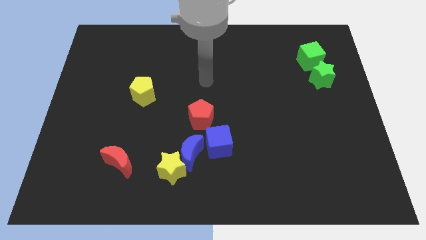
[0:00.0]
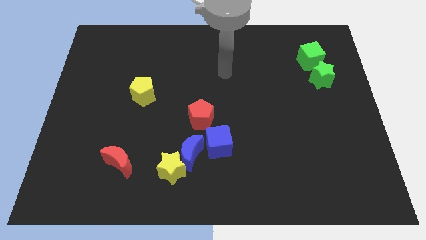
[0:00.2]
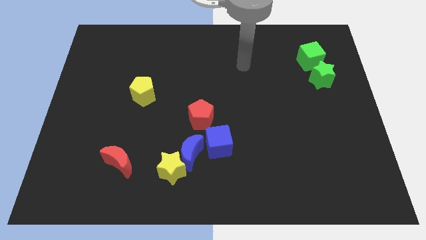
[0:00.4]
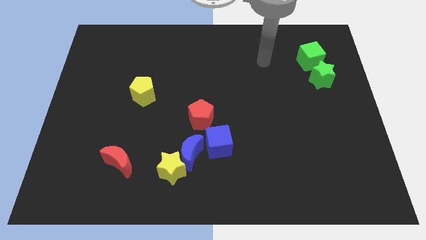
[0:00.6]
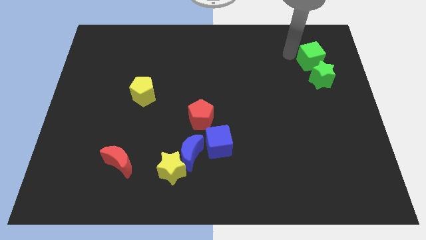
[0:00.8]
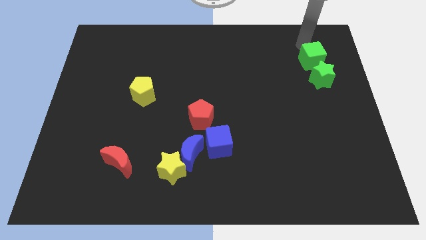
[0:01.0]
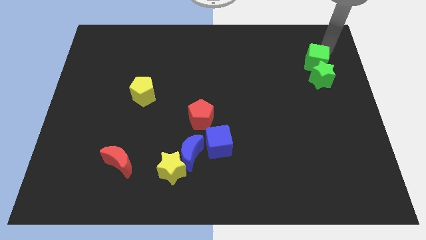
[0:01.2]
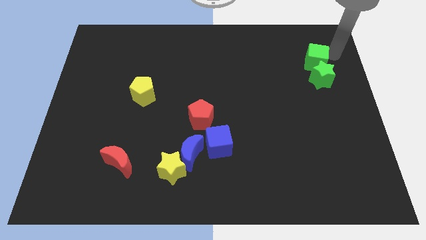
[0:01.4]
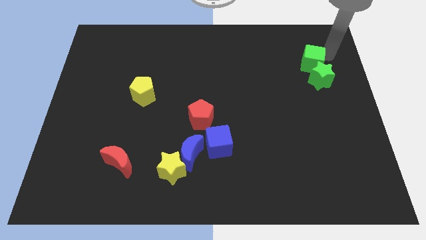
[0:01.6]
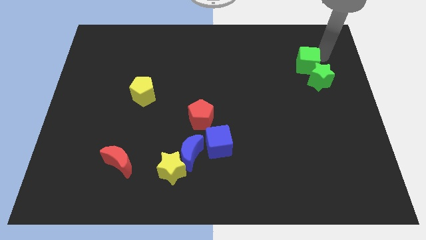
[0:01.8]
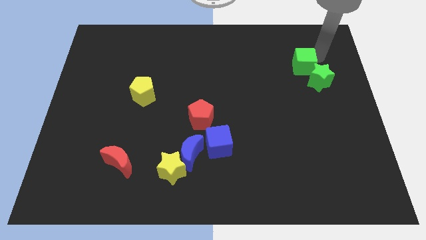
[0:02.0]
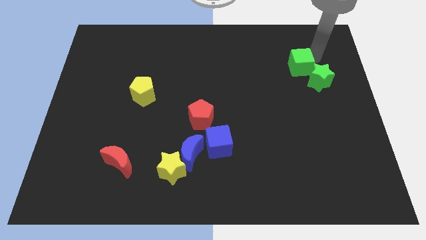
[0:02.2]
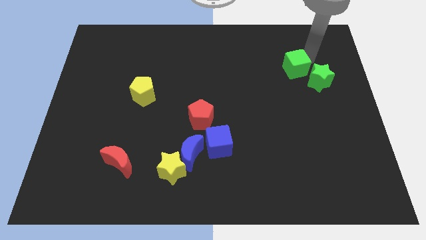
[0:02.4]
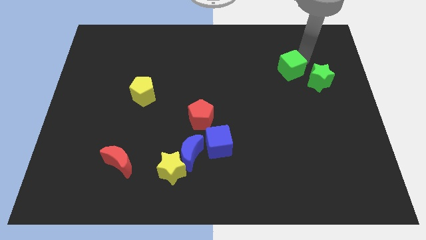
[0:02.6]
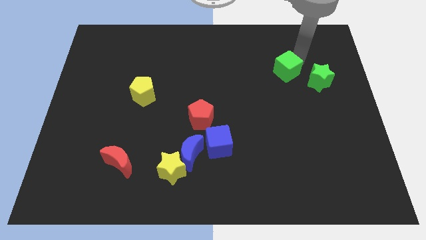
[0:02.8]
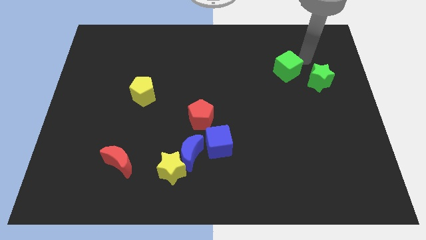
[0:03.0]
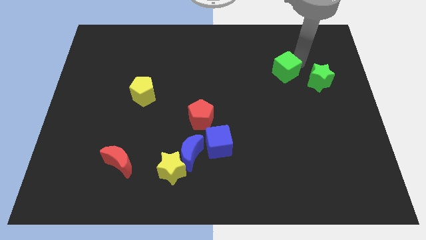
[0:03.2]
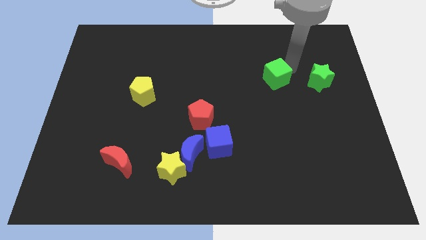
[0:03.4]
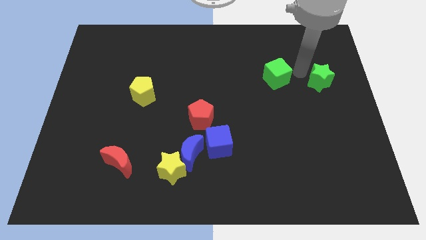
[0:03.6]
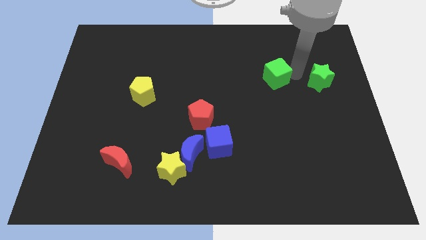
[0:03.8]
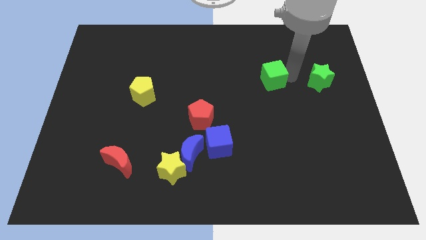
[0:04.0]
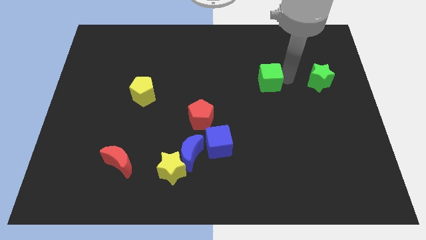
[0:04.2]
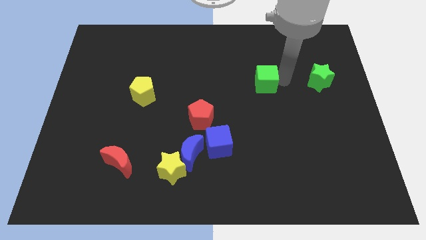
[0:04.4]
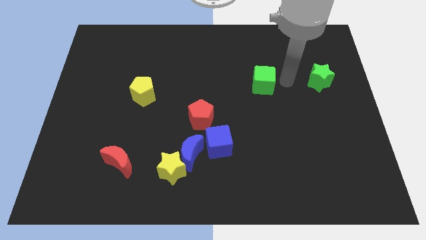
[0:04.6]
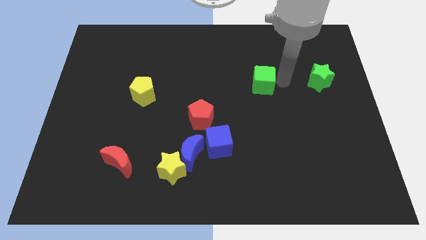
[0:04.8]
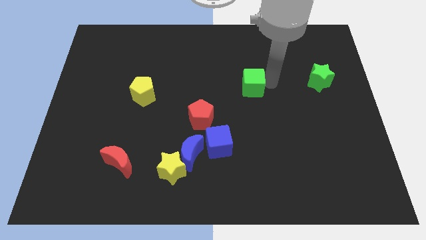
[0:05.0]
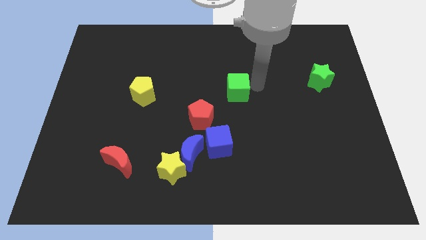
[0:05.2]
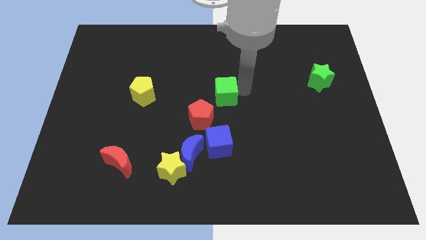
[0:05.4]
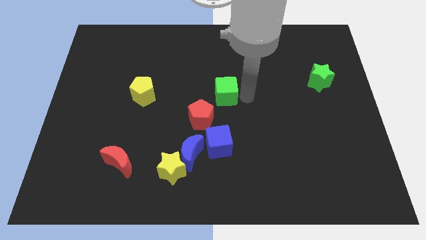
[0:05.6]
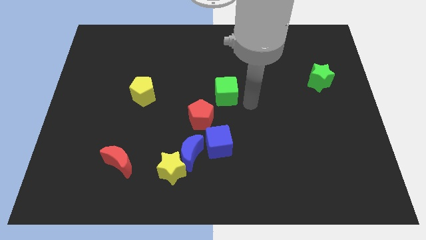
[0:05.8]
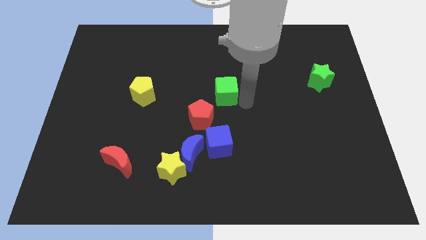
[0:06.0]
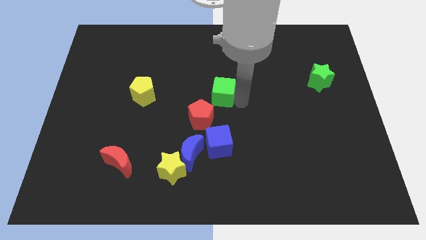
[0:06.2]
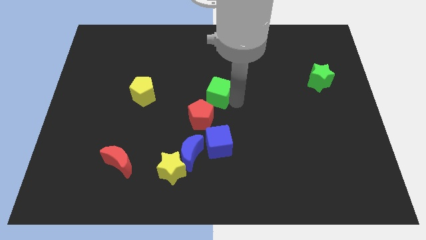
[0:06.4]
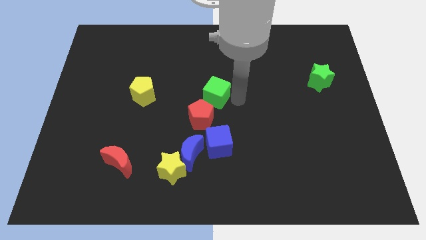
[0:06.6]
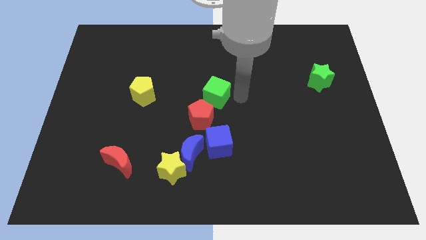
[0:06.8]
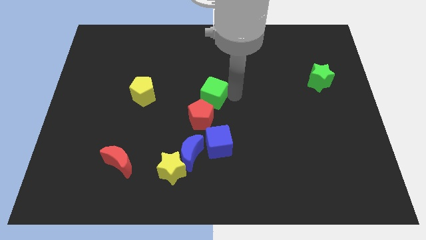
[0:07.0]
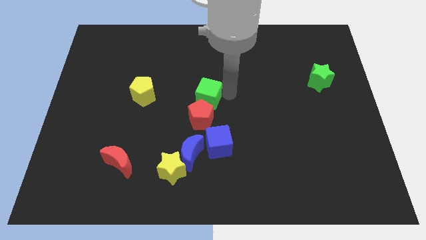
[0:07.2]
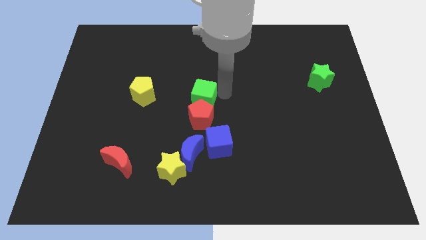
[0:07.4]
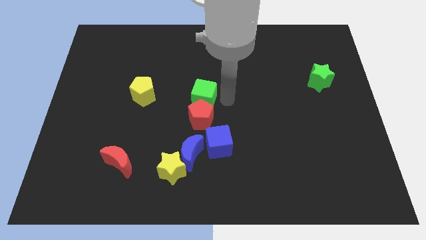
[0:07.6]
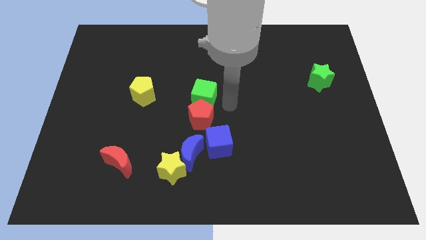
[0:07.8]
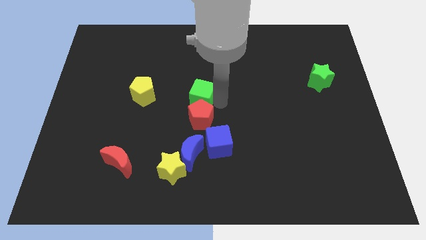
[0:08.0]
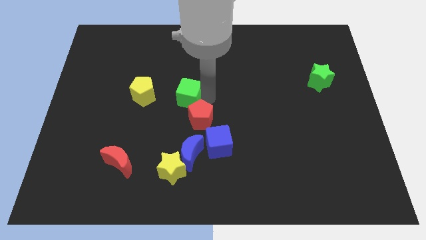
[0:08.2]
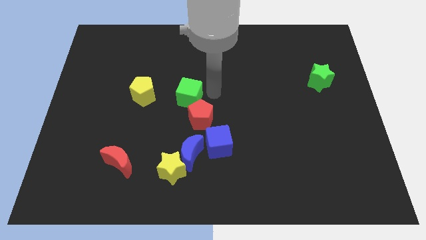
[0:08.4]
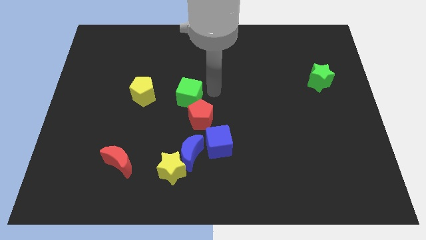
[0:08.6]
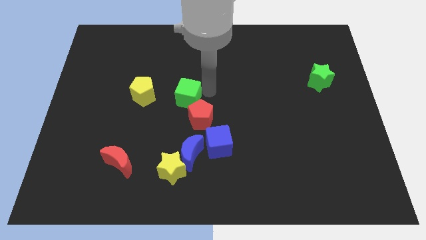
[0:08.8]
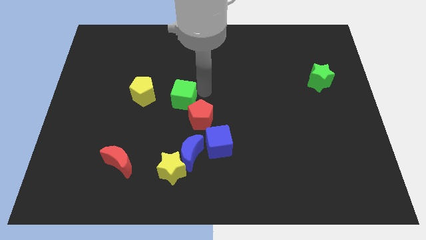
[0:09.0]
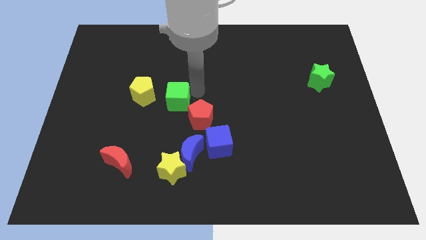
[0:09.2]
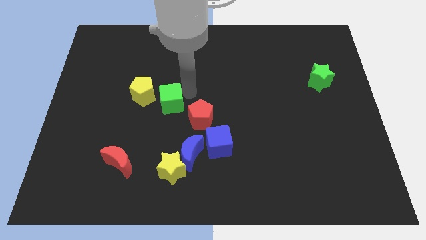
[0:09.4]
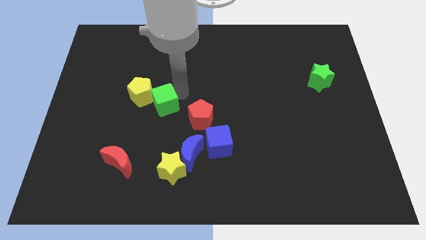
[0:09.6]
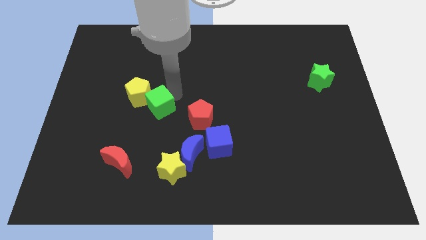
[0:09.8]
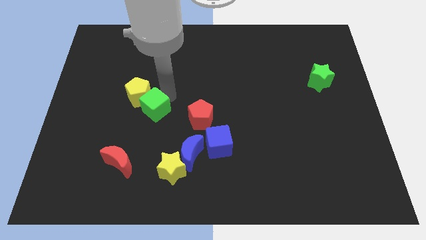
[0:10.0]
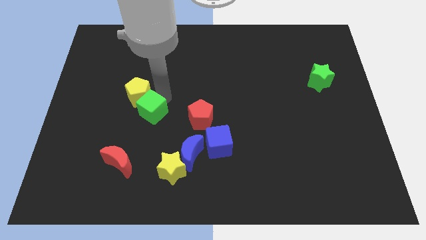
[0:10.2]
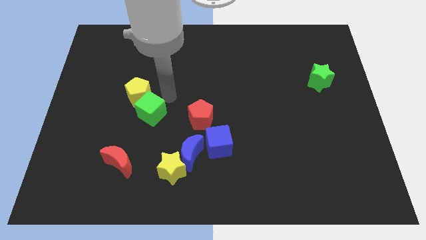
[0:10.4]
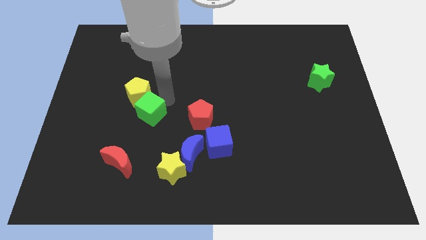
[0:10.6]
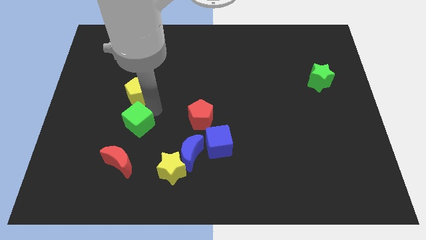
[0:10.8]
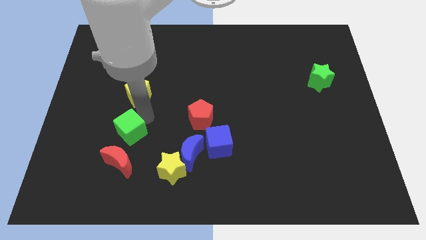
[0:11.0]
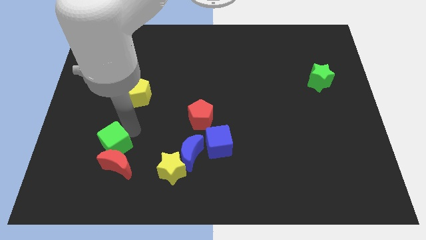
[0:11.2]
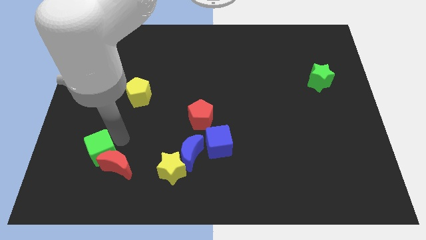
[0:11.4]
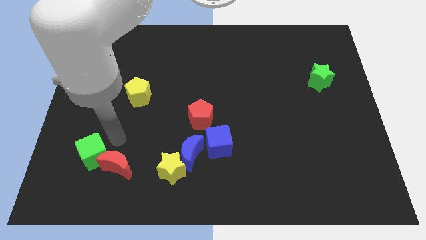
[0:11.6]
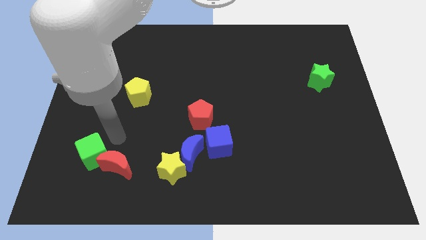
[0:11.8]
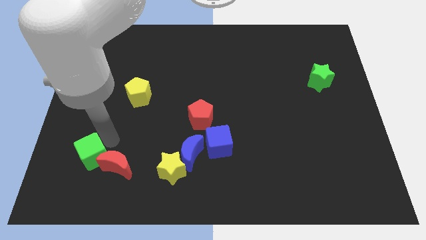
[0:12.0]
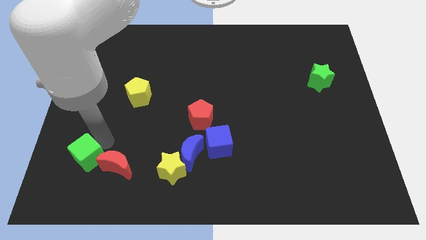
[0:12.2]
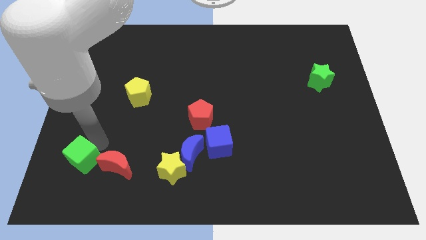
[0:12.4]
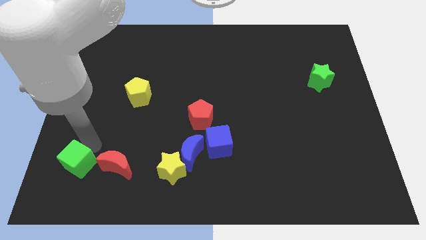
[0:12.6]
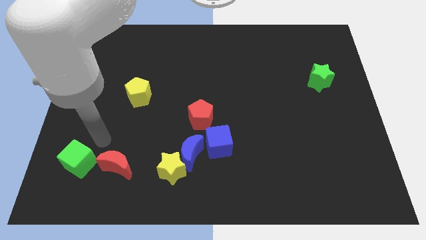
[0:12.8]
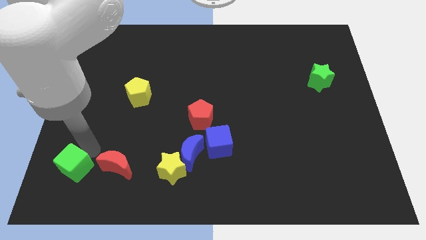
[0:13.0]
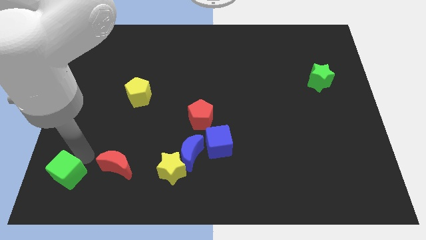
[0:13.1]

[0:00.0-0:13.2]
put the green cube to the bottom left corner
